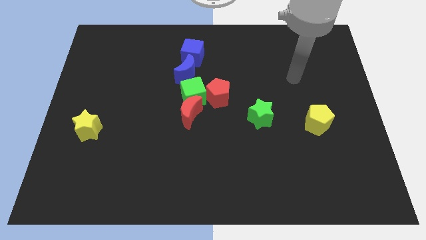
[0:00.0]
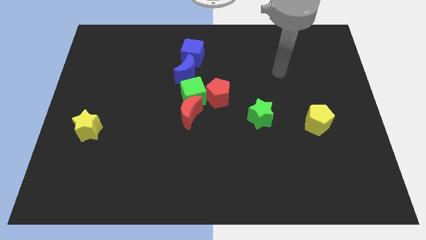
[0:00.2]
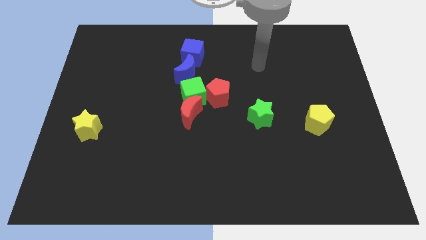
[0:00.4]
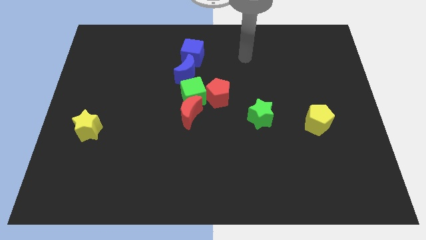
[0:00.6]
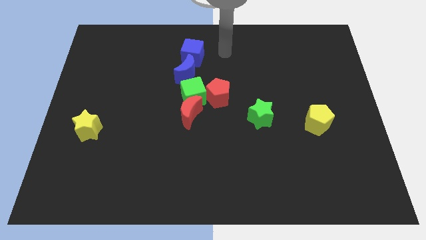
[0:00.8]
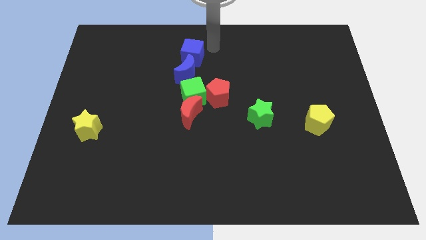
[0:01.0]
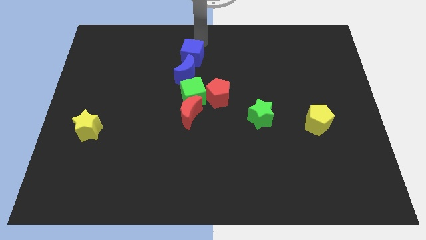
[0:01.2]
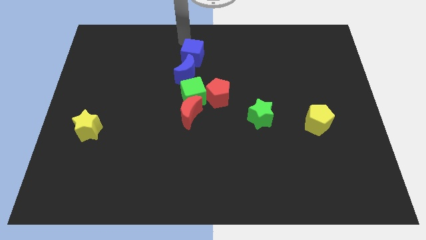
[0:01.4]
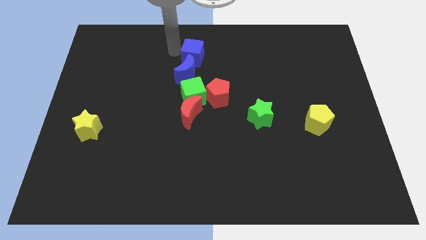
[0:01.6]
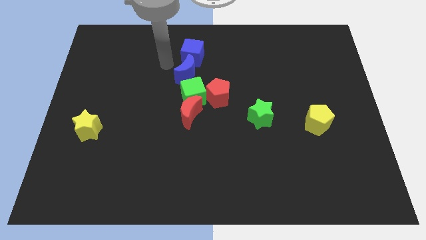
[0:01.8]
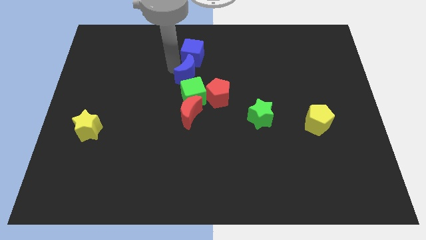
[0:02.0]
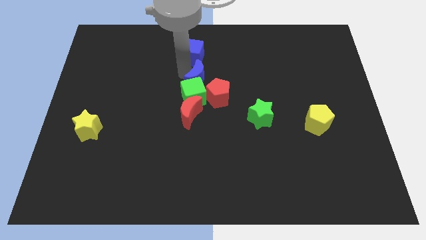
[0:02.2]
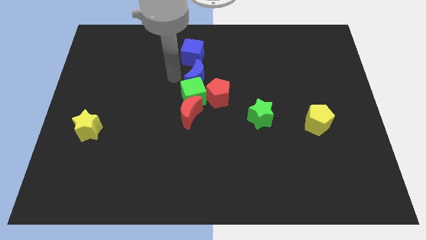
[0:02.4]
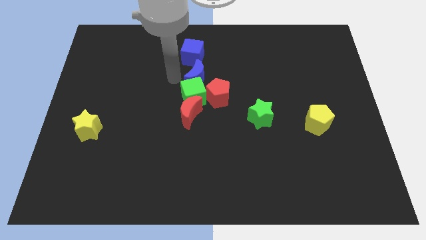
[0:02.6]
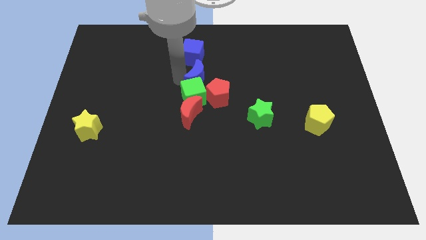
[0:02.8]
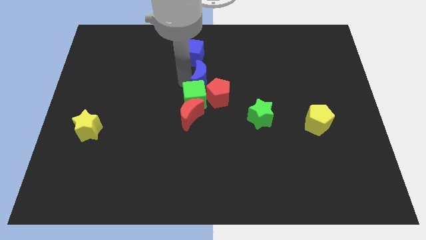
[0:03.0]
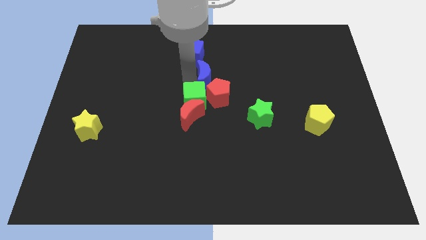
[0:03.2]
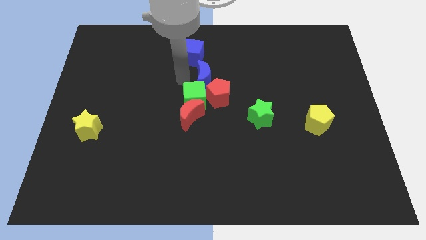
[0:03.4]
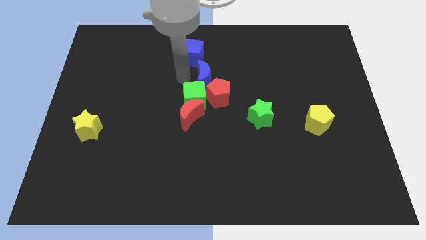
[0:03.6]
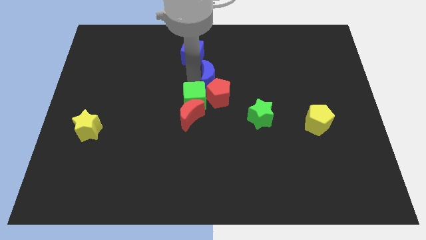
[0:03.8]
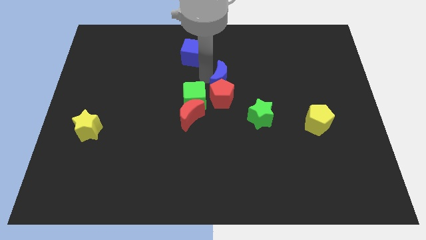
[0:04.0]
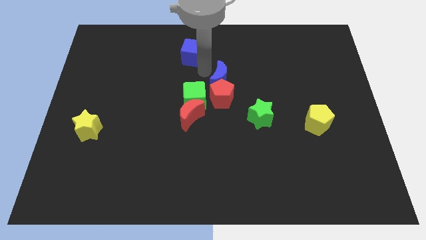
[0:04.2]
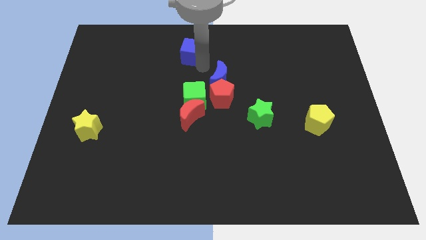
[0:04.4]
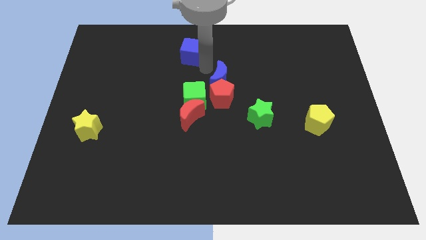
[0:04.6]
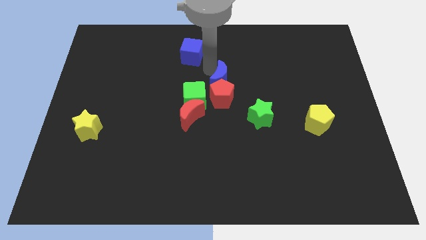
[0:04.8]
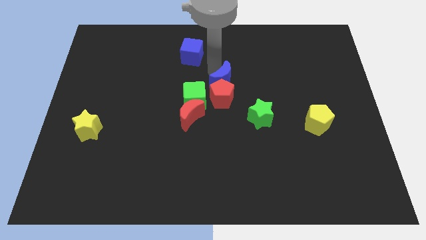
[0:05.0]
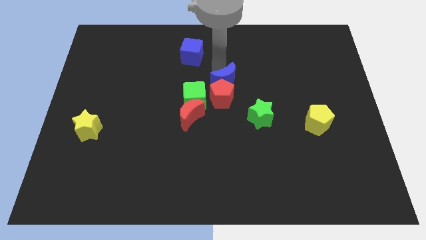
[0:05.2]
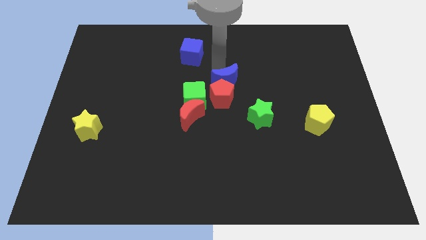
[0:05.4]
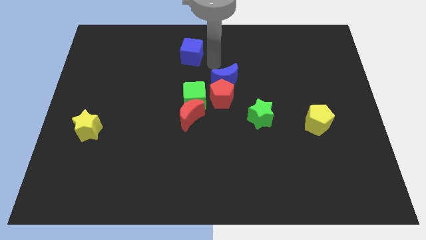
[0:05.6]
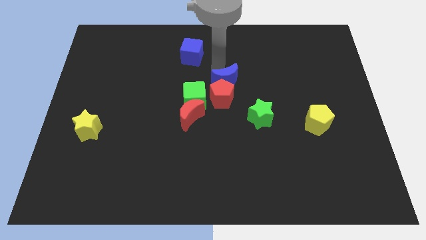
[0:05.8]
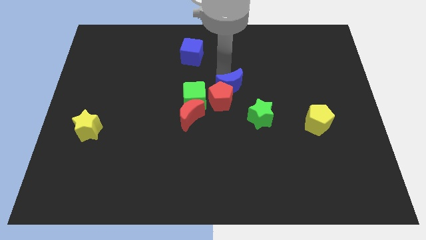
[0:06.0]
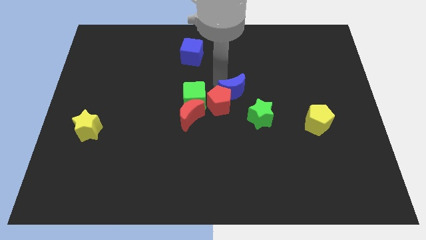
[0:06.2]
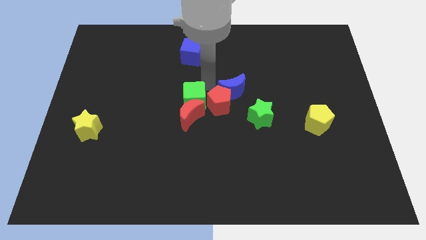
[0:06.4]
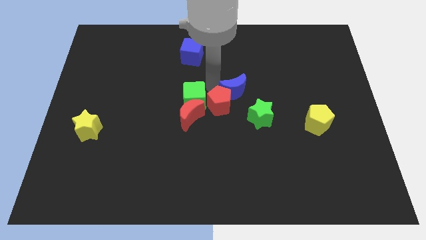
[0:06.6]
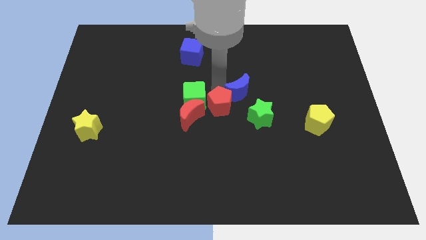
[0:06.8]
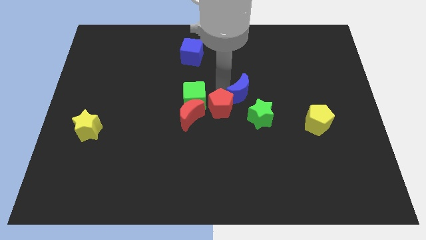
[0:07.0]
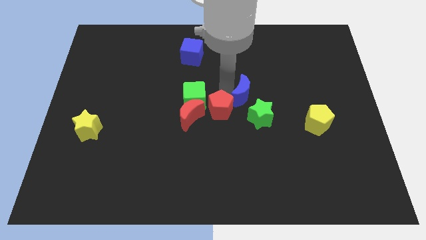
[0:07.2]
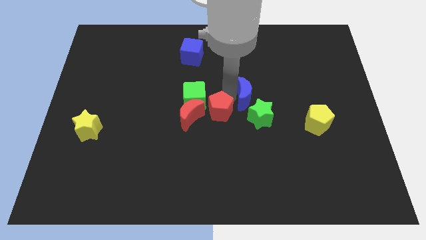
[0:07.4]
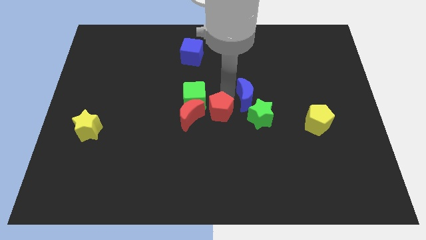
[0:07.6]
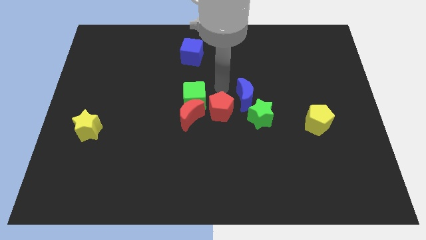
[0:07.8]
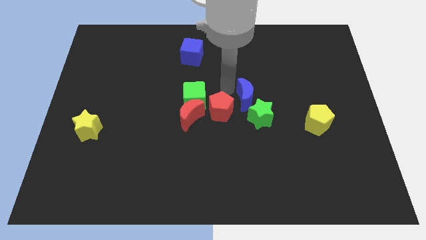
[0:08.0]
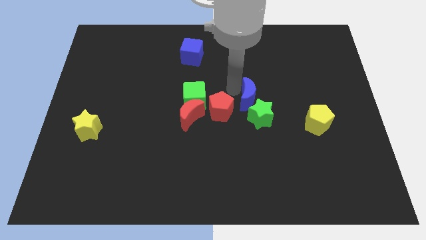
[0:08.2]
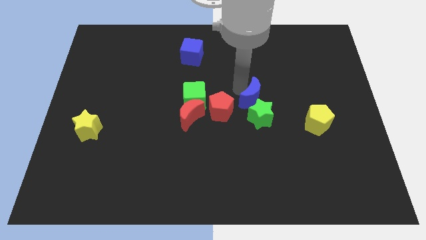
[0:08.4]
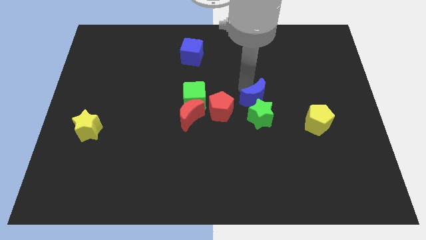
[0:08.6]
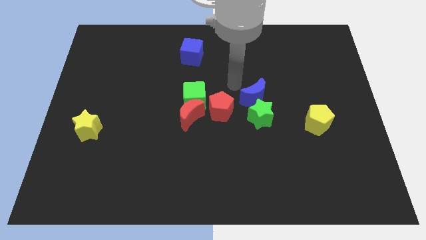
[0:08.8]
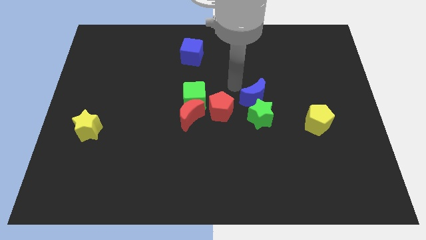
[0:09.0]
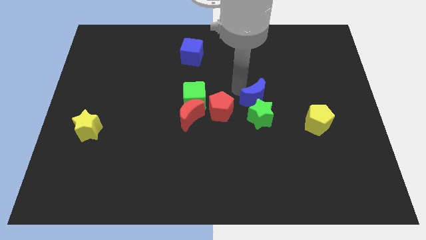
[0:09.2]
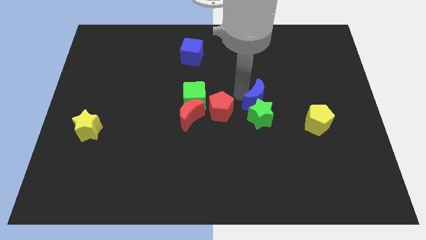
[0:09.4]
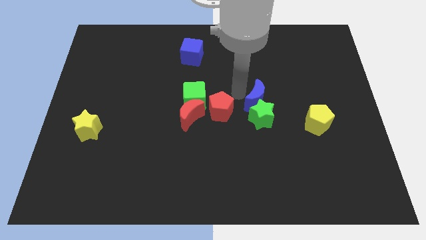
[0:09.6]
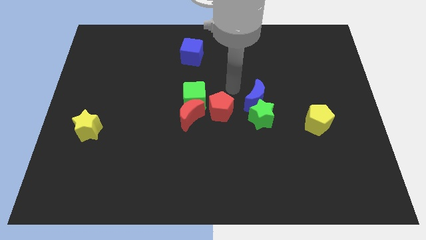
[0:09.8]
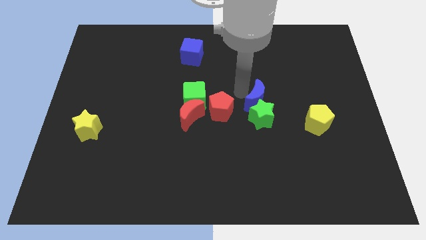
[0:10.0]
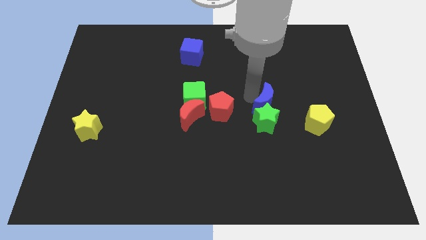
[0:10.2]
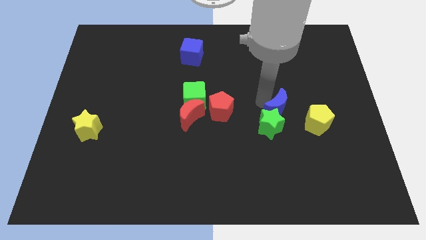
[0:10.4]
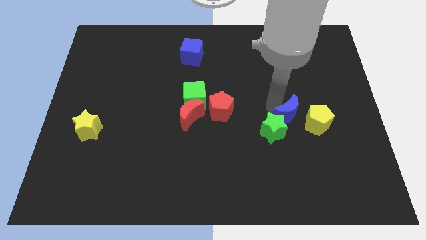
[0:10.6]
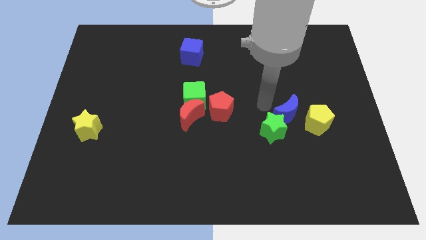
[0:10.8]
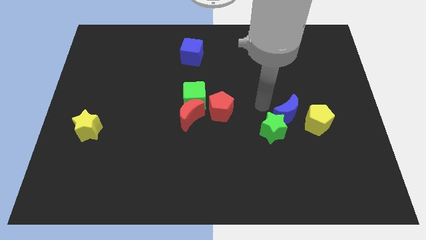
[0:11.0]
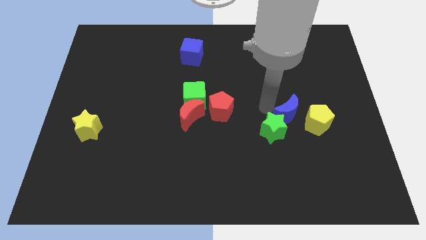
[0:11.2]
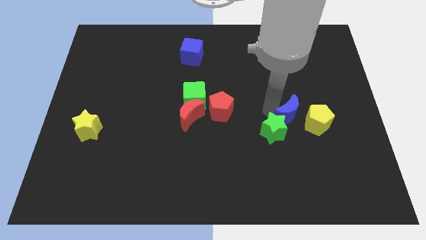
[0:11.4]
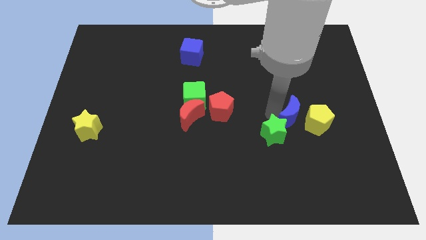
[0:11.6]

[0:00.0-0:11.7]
slide the blue moon to the yellow pentagon

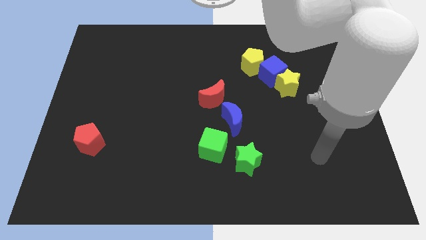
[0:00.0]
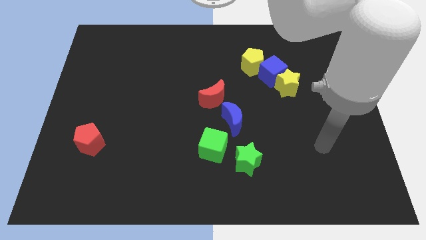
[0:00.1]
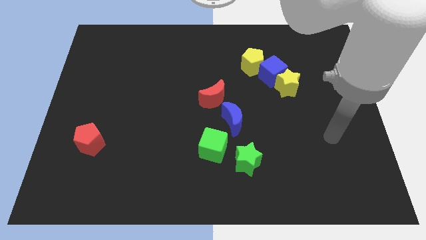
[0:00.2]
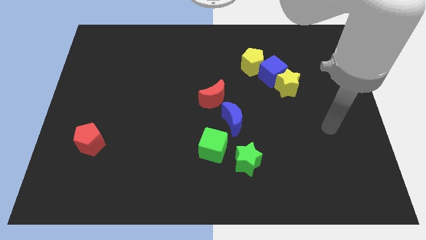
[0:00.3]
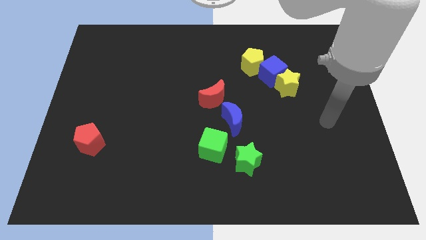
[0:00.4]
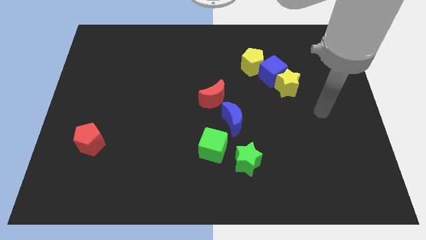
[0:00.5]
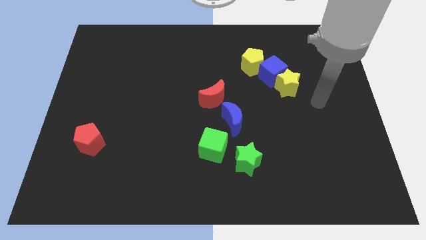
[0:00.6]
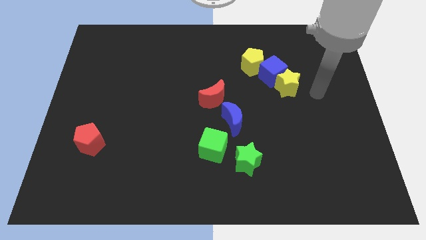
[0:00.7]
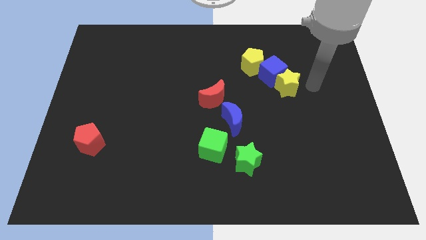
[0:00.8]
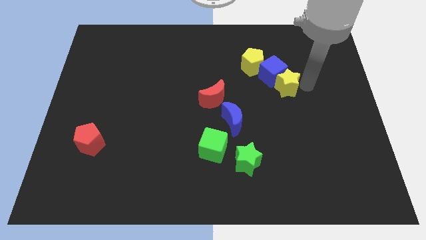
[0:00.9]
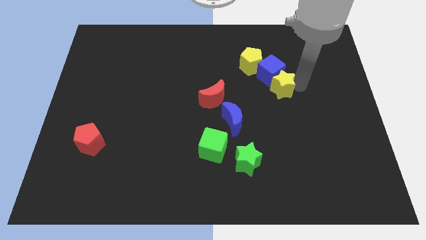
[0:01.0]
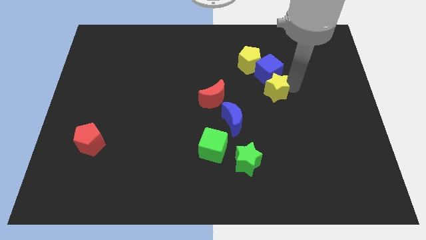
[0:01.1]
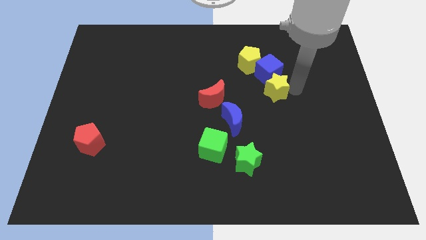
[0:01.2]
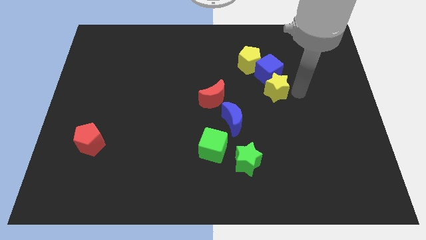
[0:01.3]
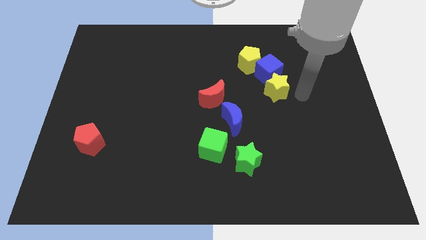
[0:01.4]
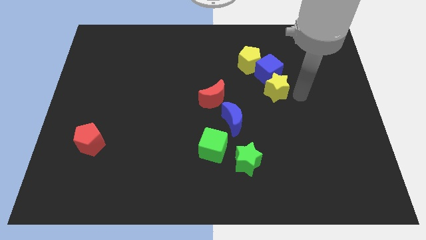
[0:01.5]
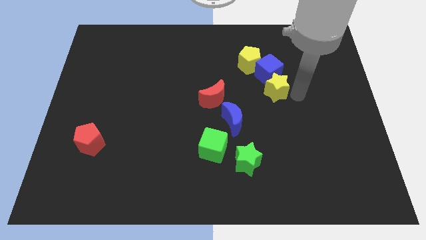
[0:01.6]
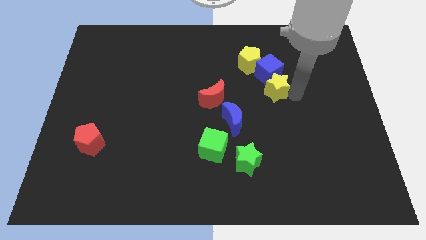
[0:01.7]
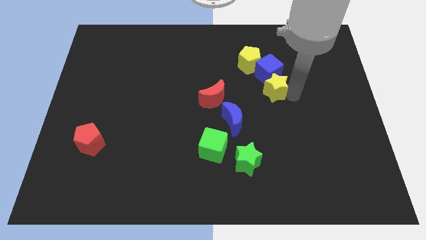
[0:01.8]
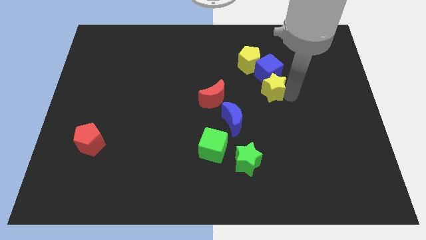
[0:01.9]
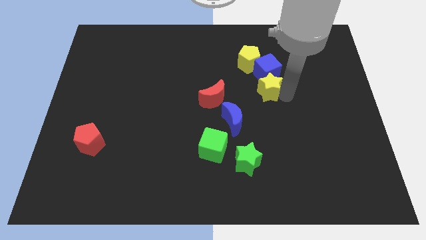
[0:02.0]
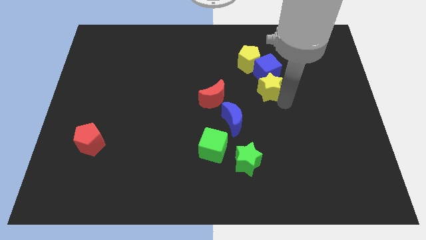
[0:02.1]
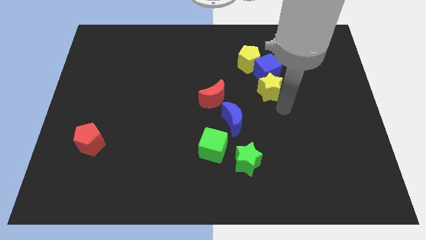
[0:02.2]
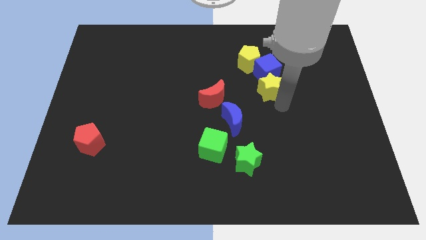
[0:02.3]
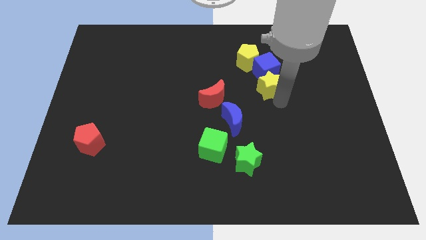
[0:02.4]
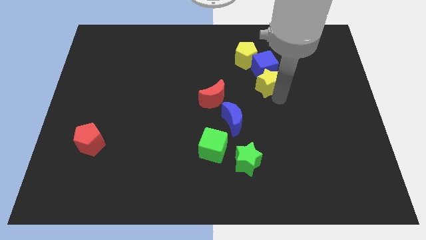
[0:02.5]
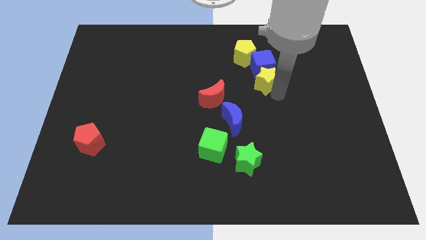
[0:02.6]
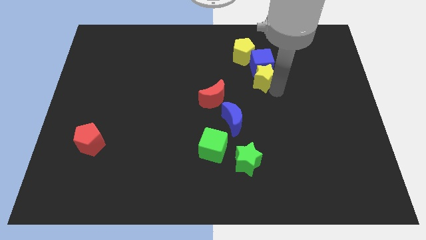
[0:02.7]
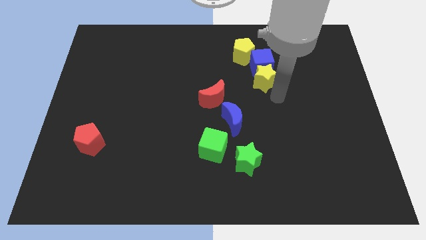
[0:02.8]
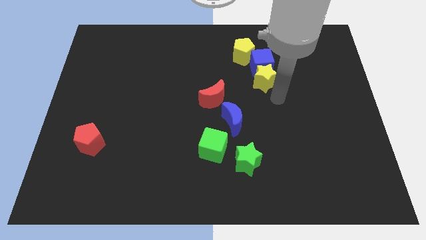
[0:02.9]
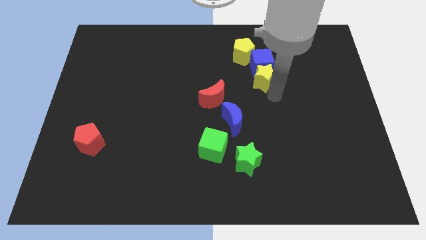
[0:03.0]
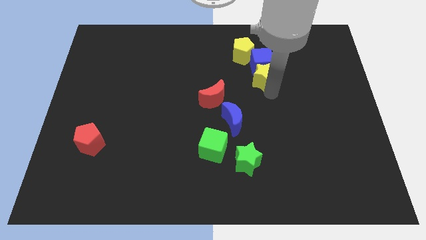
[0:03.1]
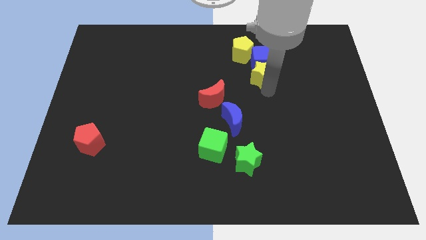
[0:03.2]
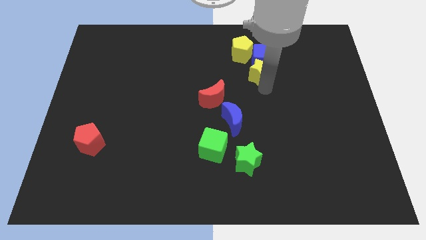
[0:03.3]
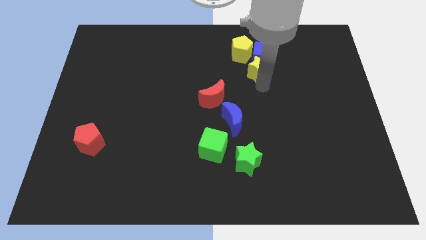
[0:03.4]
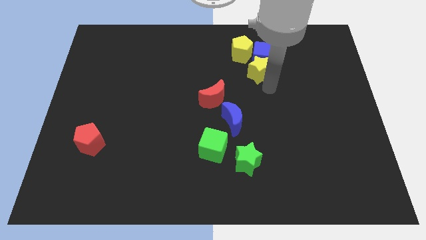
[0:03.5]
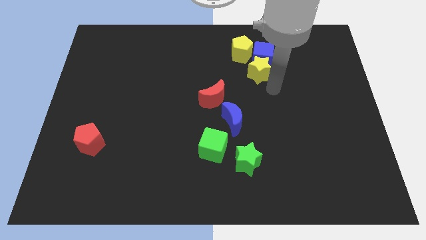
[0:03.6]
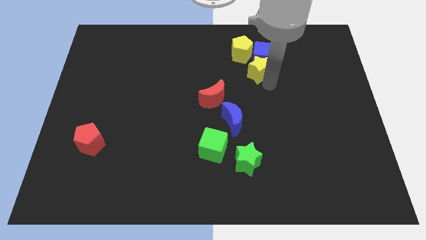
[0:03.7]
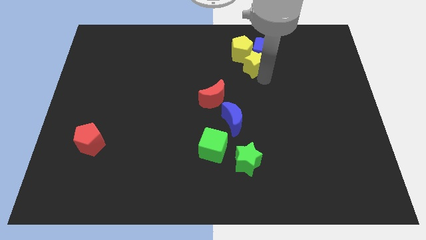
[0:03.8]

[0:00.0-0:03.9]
put the yellow star towards the yellow pentagon
